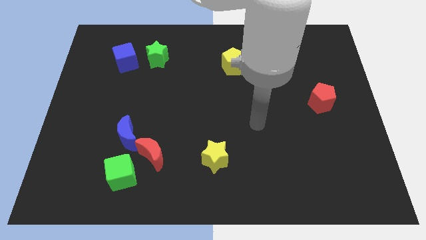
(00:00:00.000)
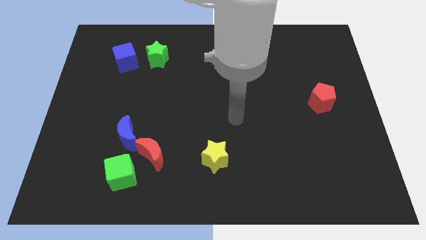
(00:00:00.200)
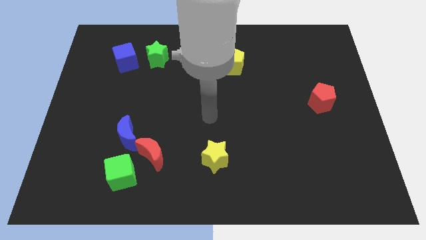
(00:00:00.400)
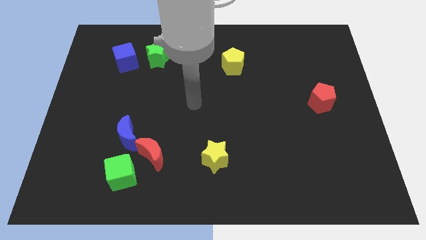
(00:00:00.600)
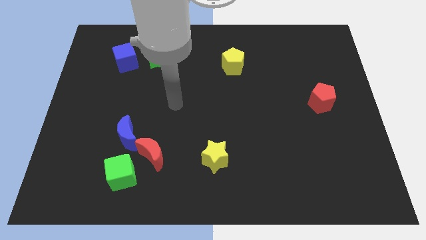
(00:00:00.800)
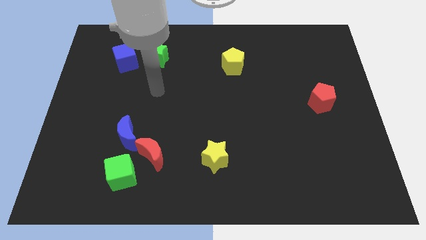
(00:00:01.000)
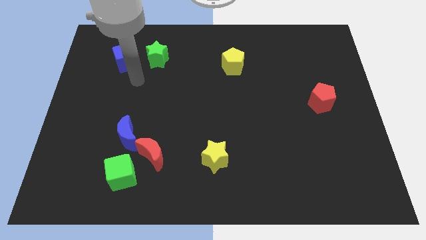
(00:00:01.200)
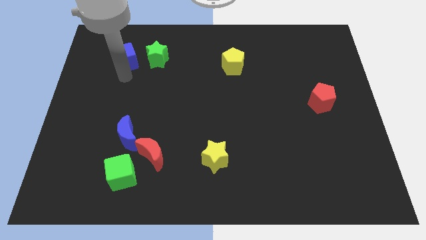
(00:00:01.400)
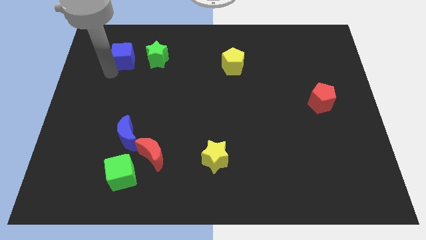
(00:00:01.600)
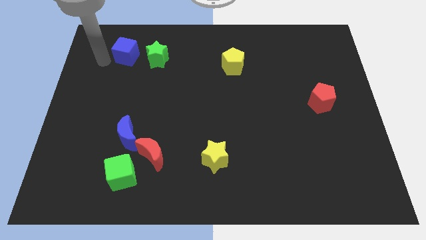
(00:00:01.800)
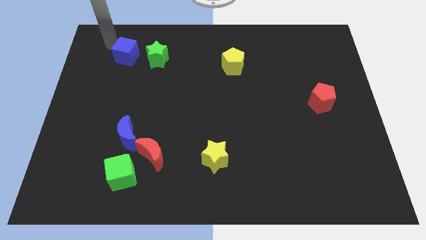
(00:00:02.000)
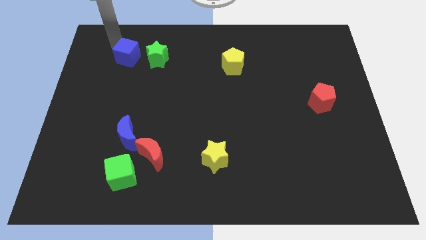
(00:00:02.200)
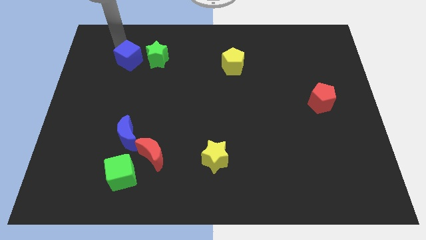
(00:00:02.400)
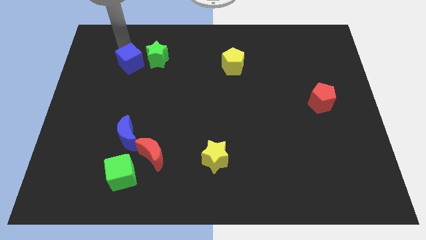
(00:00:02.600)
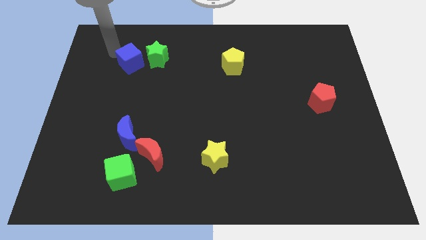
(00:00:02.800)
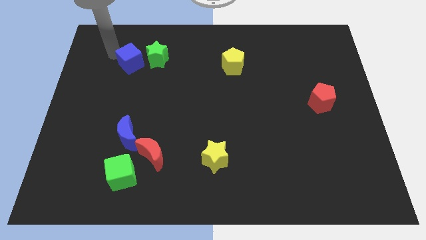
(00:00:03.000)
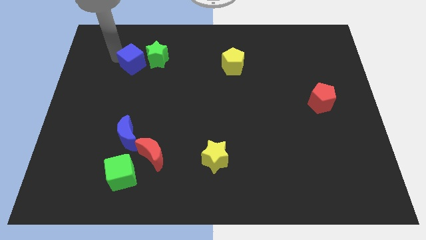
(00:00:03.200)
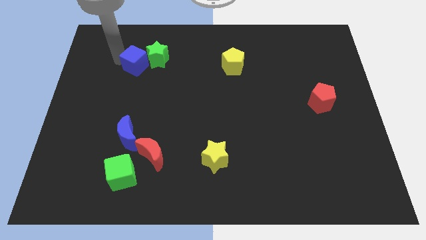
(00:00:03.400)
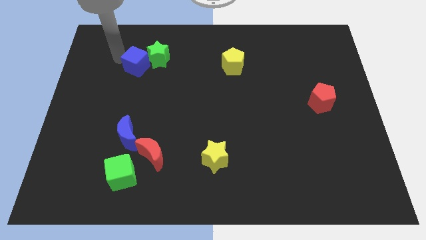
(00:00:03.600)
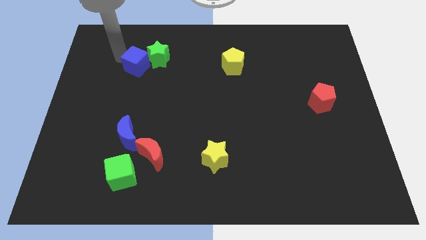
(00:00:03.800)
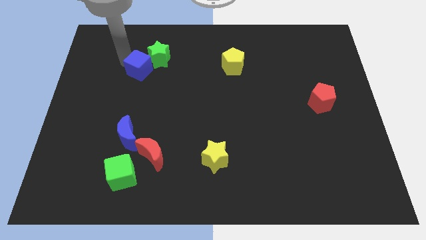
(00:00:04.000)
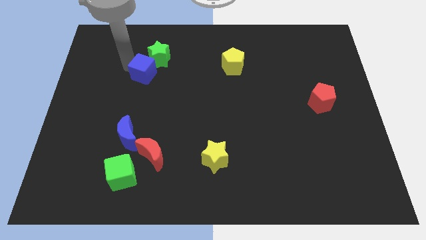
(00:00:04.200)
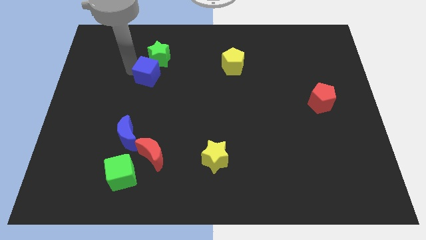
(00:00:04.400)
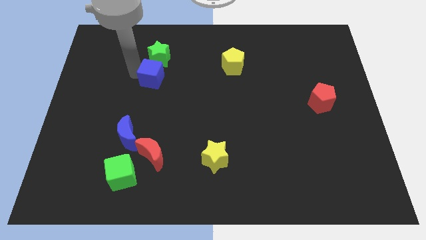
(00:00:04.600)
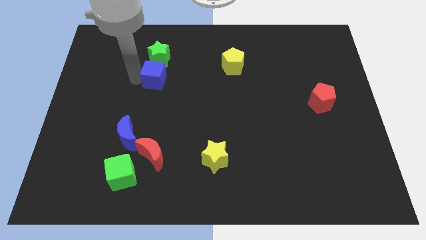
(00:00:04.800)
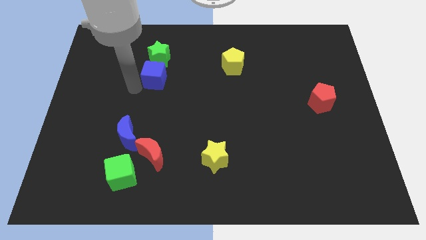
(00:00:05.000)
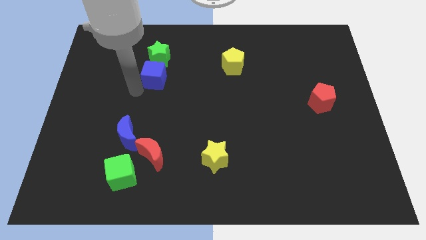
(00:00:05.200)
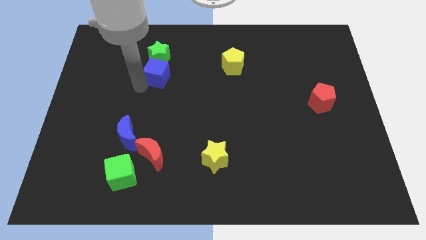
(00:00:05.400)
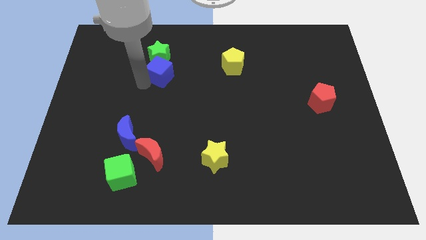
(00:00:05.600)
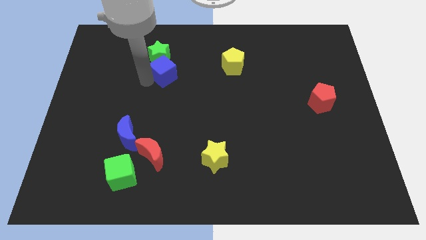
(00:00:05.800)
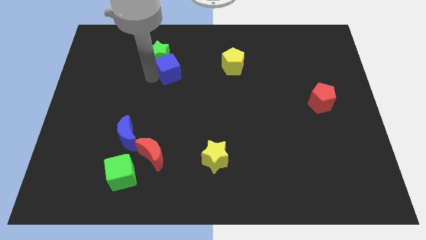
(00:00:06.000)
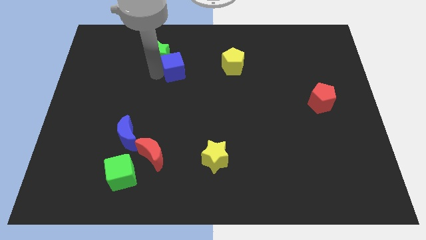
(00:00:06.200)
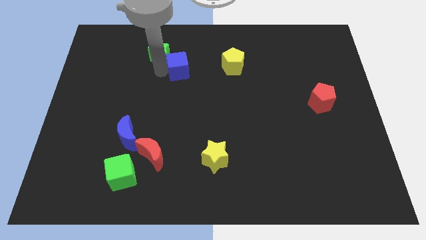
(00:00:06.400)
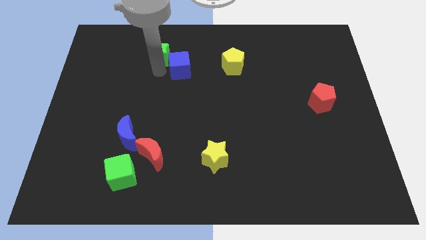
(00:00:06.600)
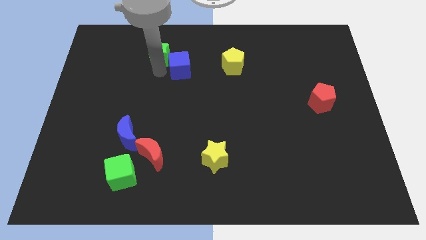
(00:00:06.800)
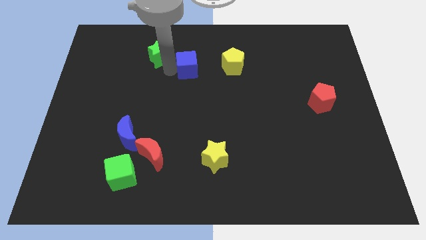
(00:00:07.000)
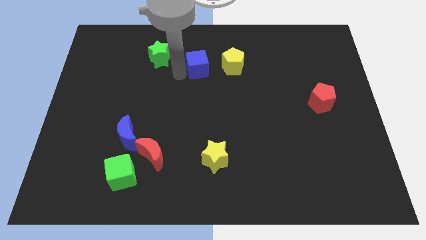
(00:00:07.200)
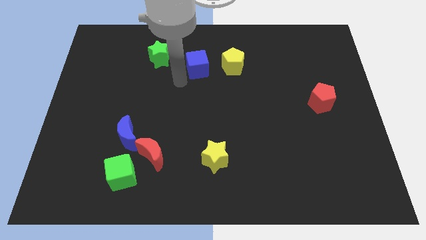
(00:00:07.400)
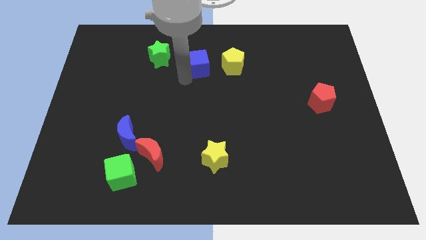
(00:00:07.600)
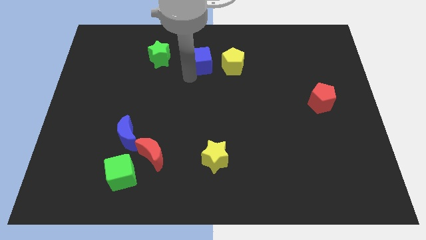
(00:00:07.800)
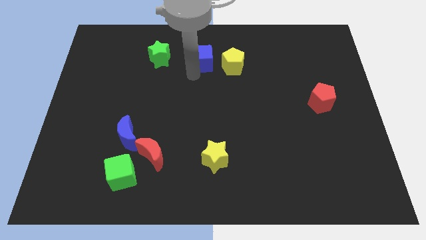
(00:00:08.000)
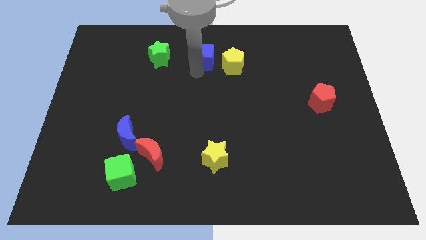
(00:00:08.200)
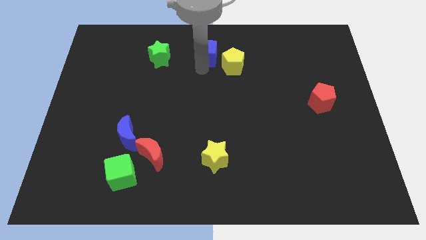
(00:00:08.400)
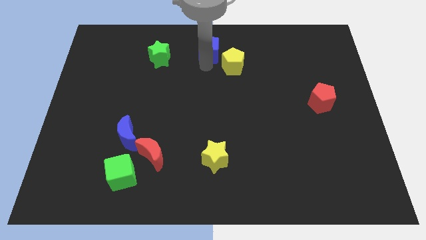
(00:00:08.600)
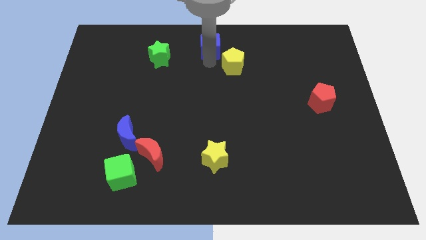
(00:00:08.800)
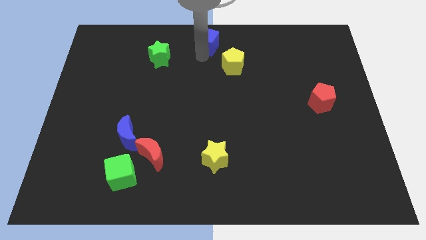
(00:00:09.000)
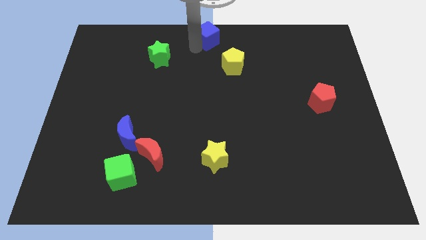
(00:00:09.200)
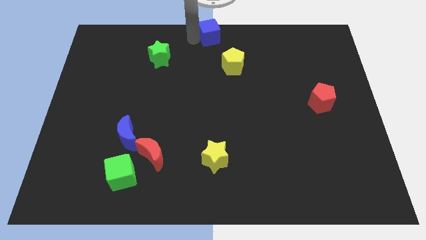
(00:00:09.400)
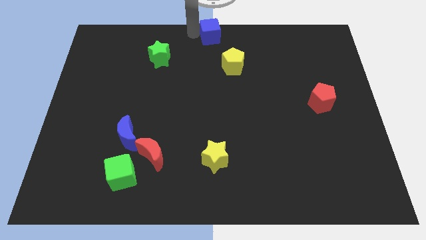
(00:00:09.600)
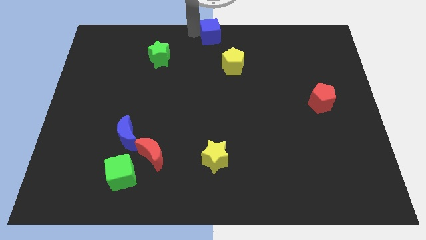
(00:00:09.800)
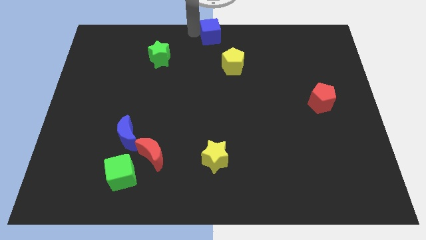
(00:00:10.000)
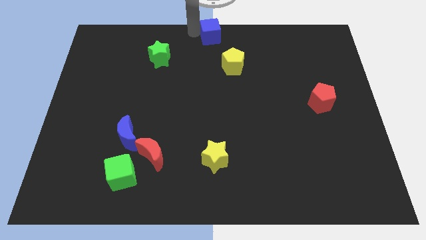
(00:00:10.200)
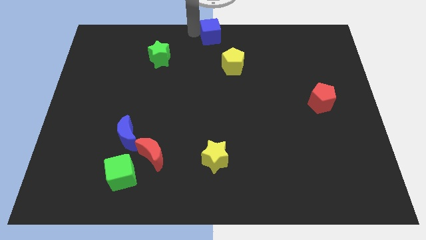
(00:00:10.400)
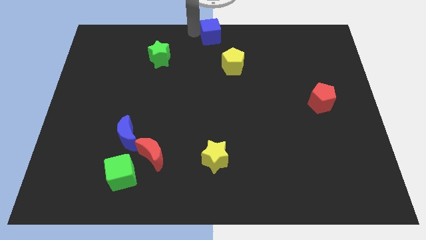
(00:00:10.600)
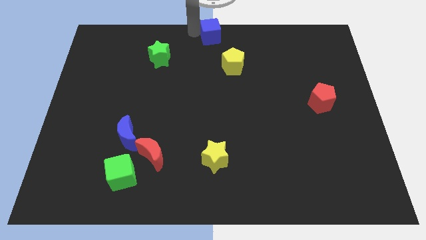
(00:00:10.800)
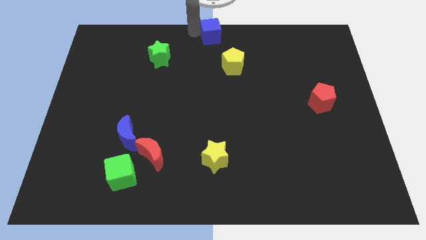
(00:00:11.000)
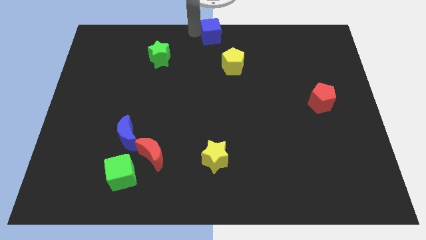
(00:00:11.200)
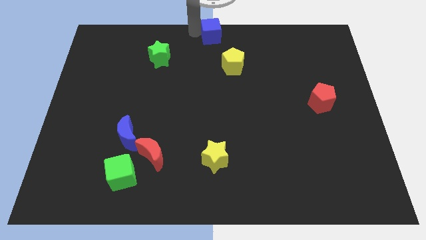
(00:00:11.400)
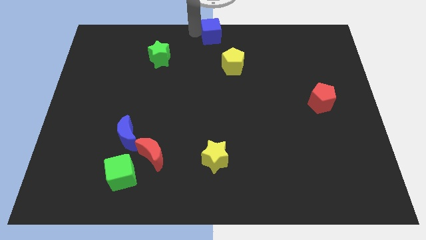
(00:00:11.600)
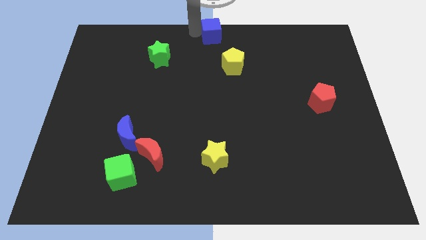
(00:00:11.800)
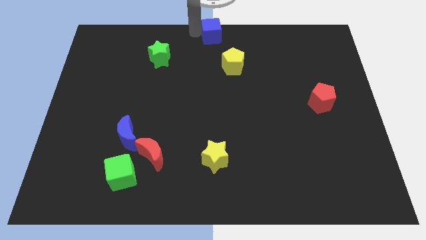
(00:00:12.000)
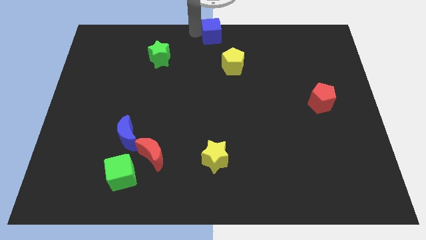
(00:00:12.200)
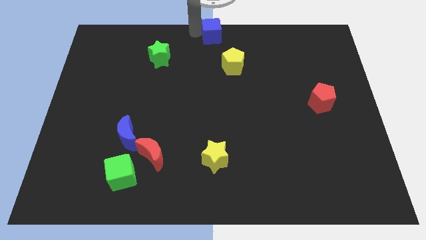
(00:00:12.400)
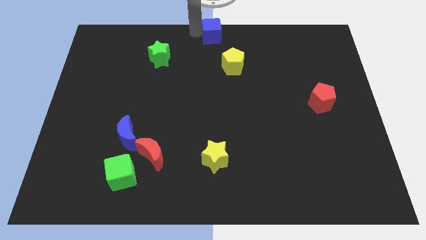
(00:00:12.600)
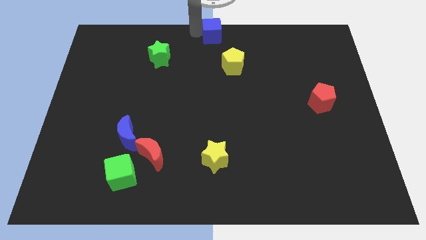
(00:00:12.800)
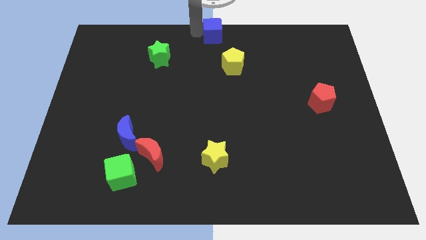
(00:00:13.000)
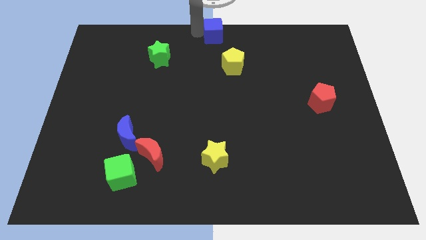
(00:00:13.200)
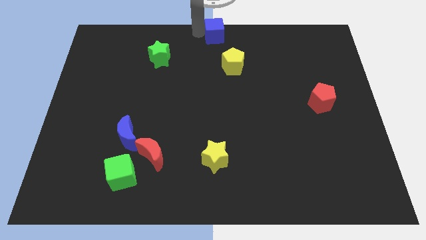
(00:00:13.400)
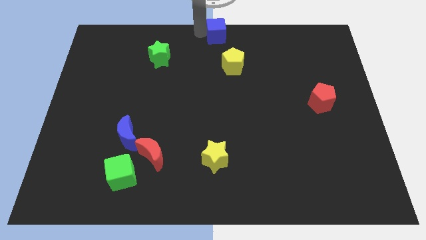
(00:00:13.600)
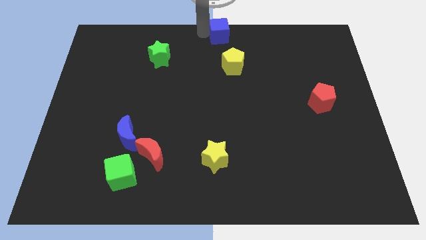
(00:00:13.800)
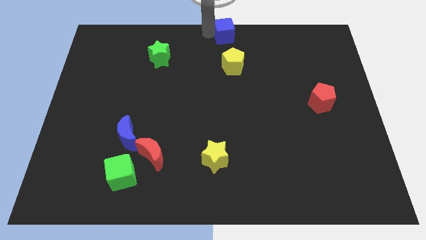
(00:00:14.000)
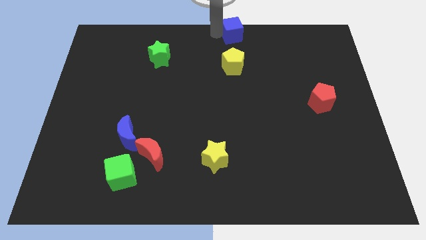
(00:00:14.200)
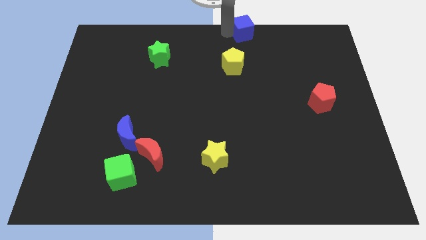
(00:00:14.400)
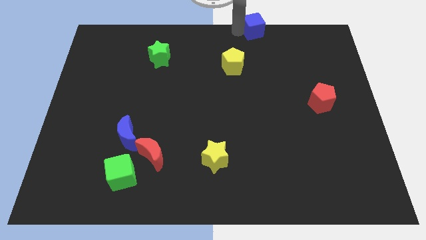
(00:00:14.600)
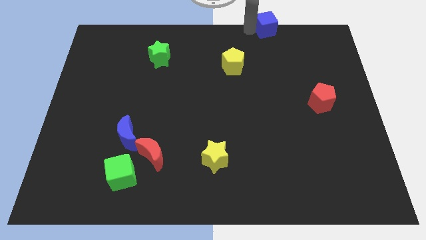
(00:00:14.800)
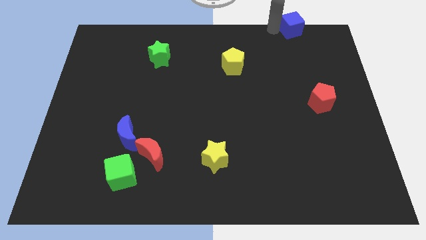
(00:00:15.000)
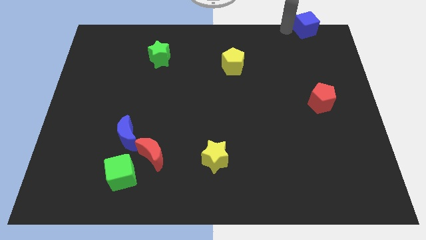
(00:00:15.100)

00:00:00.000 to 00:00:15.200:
slide the blue cube to the top right corner
